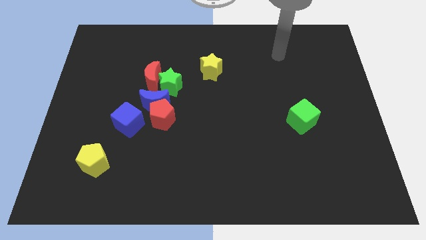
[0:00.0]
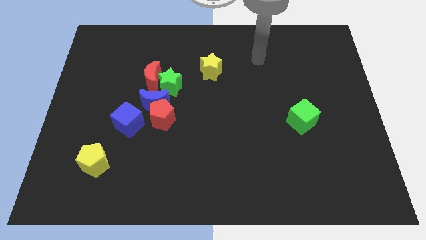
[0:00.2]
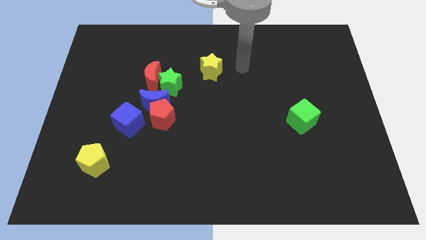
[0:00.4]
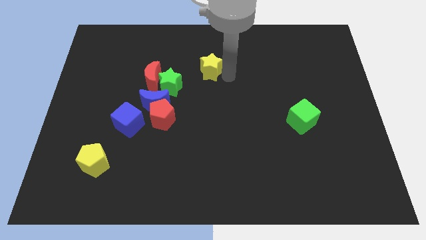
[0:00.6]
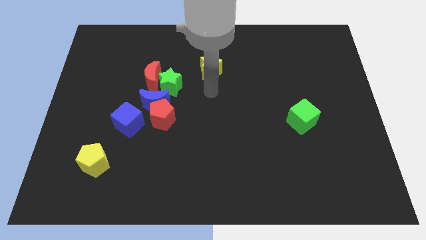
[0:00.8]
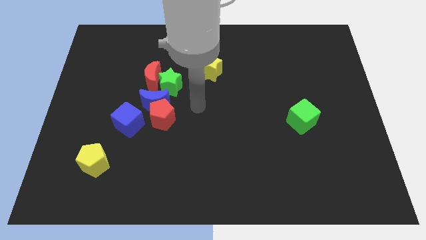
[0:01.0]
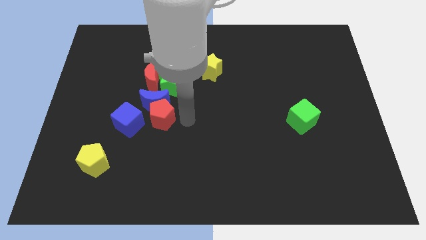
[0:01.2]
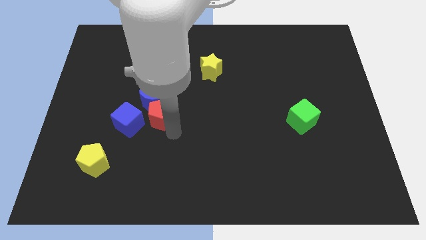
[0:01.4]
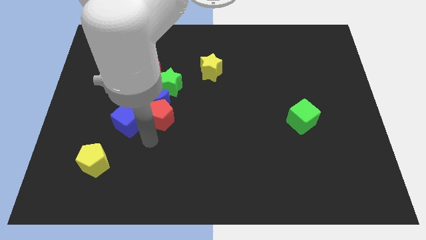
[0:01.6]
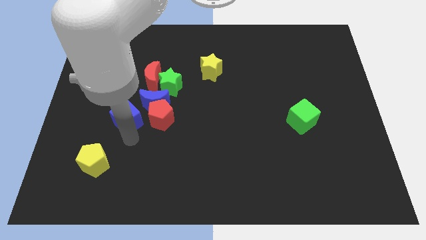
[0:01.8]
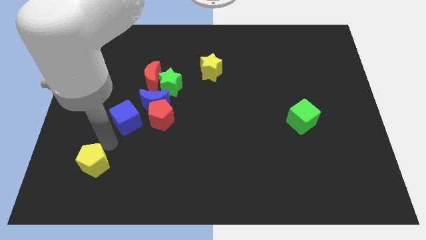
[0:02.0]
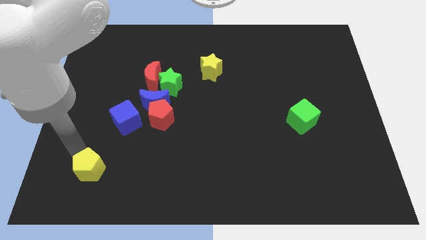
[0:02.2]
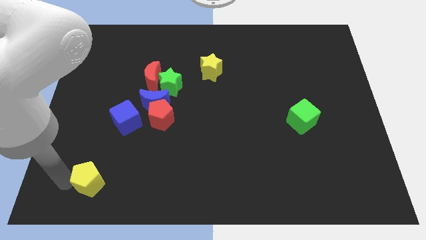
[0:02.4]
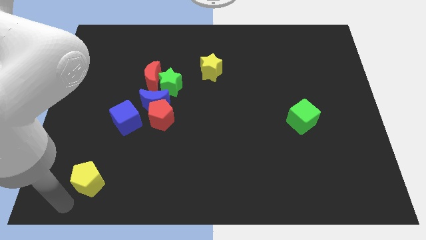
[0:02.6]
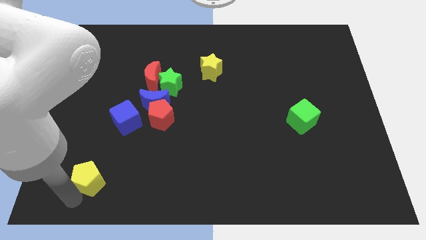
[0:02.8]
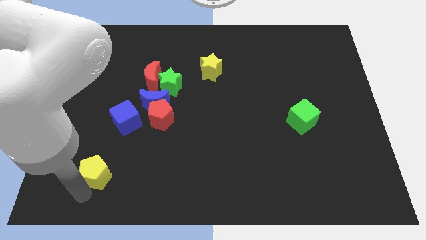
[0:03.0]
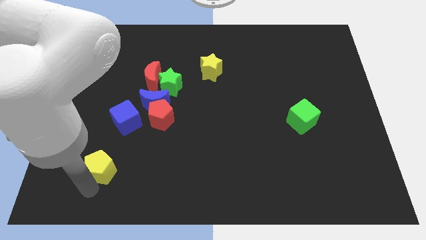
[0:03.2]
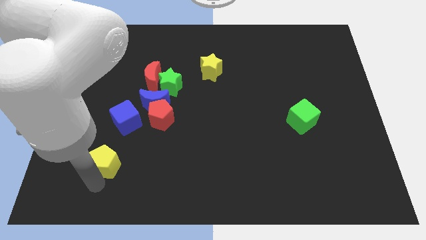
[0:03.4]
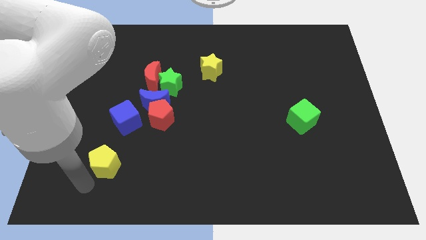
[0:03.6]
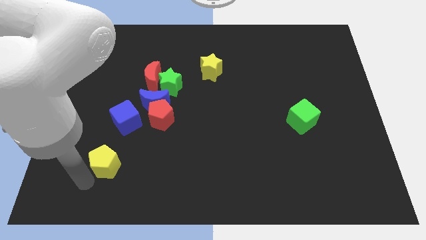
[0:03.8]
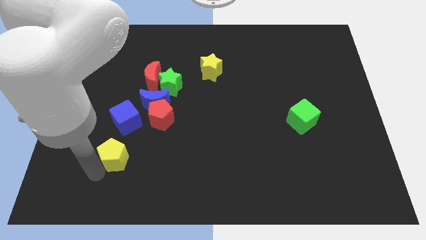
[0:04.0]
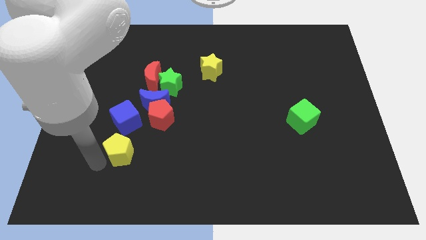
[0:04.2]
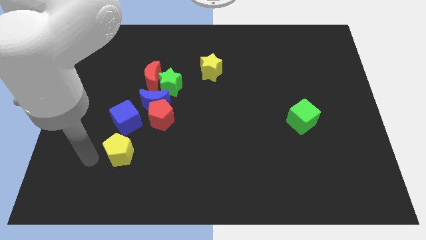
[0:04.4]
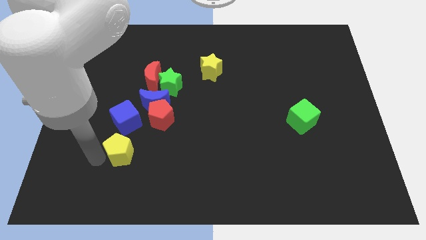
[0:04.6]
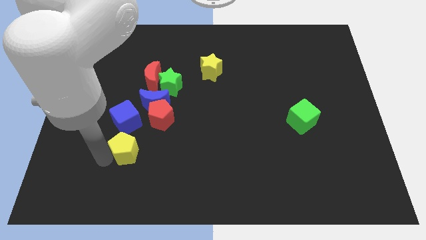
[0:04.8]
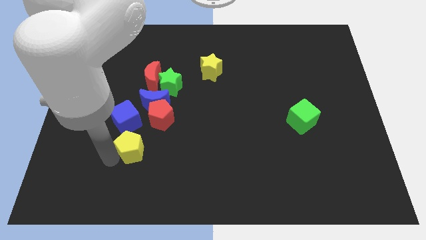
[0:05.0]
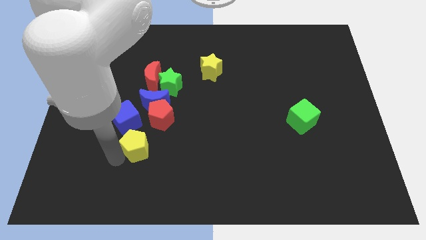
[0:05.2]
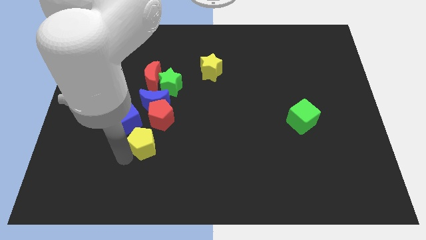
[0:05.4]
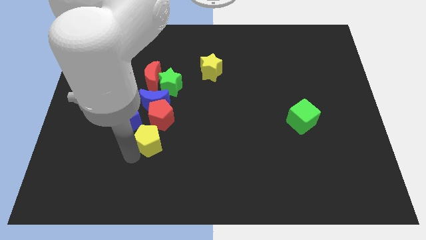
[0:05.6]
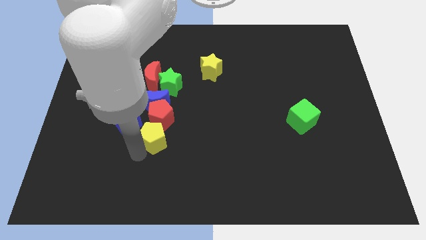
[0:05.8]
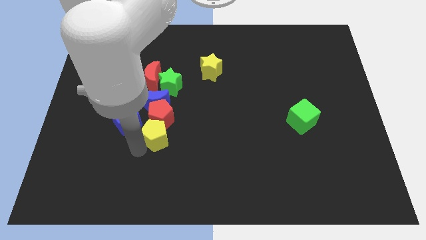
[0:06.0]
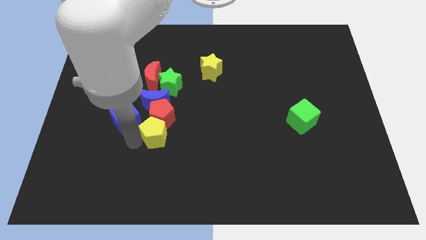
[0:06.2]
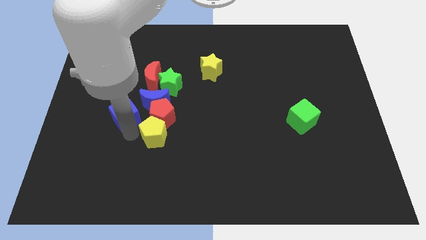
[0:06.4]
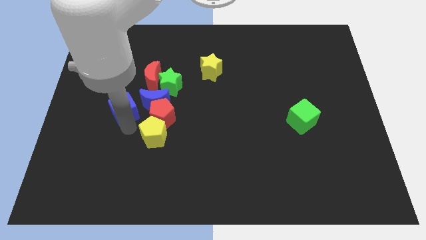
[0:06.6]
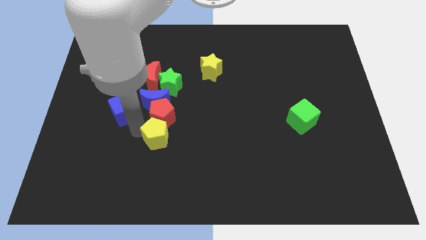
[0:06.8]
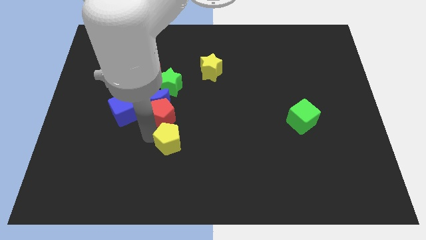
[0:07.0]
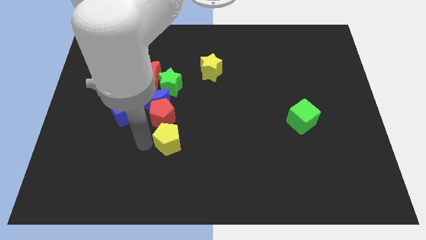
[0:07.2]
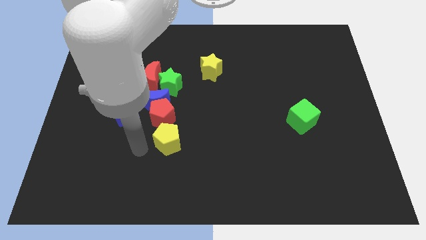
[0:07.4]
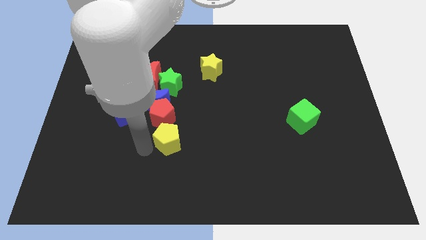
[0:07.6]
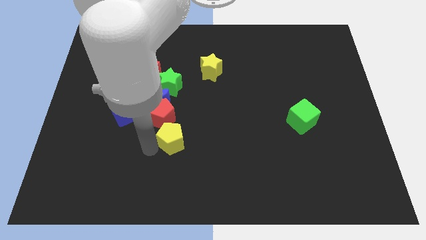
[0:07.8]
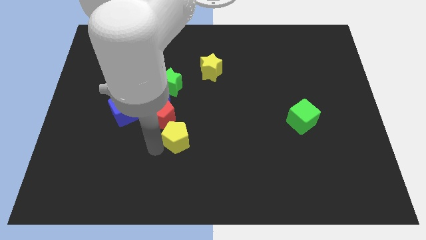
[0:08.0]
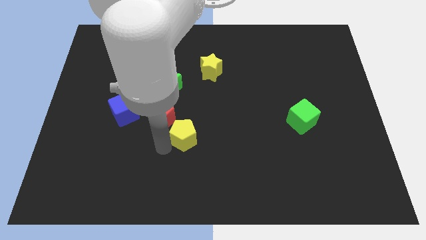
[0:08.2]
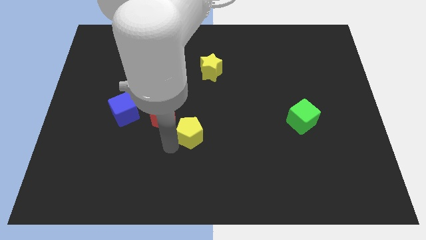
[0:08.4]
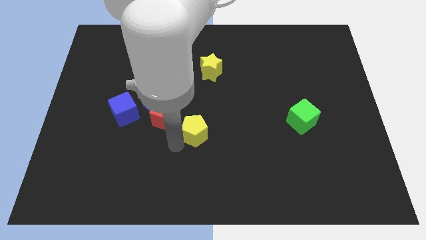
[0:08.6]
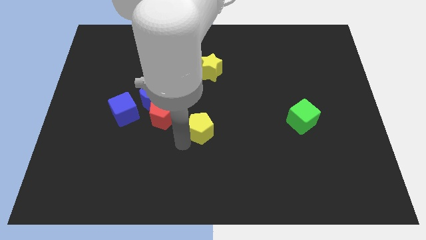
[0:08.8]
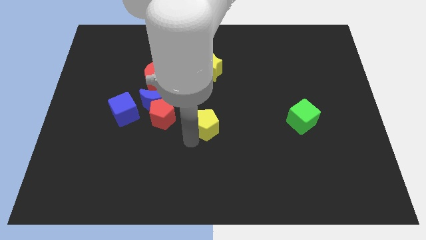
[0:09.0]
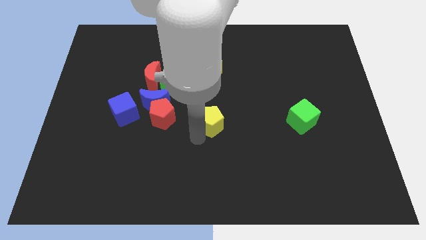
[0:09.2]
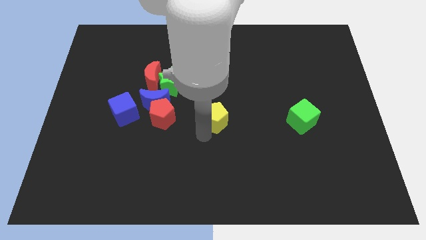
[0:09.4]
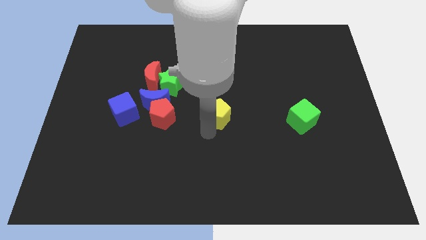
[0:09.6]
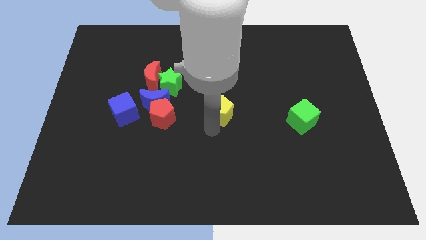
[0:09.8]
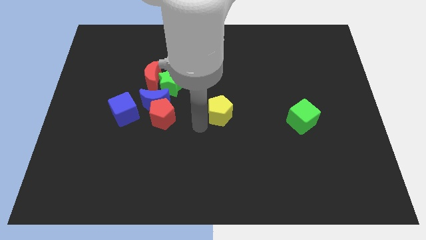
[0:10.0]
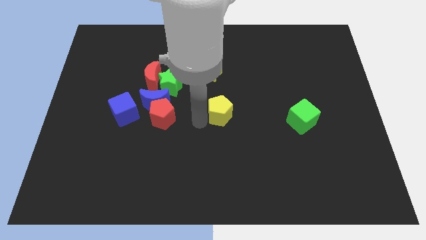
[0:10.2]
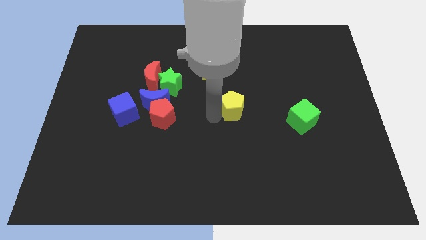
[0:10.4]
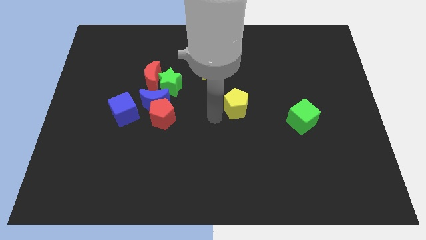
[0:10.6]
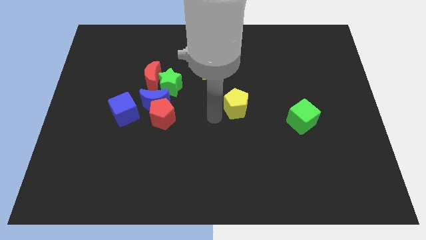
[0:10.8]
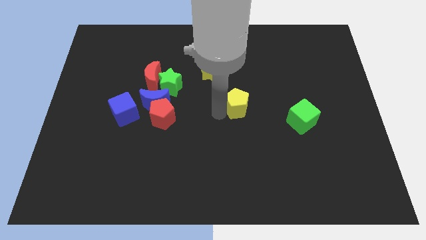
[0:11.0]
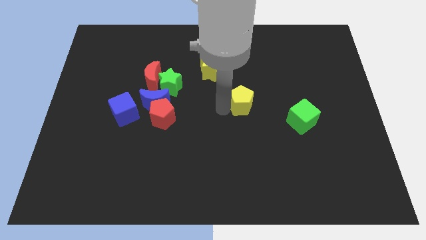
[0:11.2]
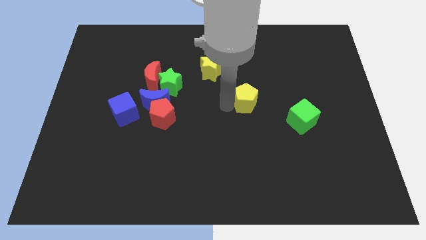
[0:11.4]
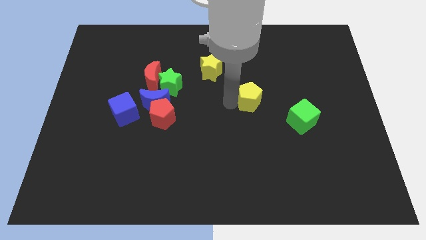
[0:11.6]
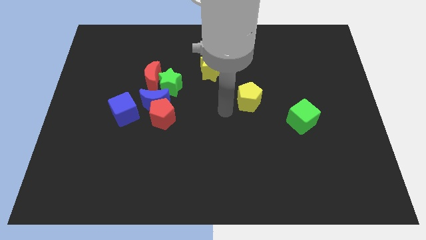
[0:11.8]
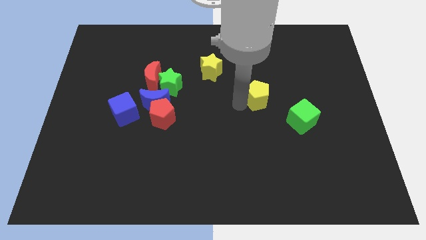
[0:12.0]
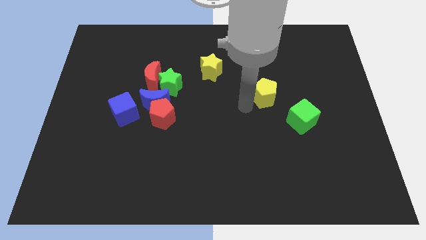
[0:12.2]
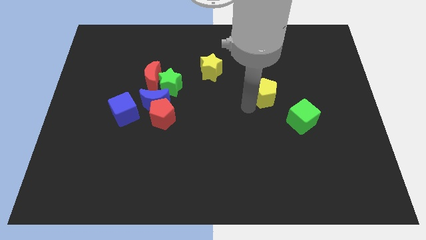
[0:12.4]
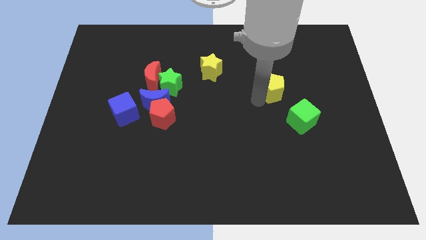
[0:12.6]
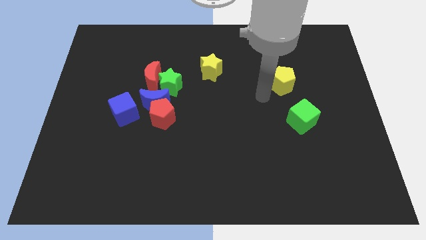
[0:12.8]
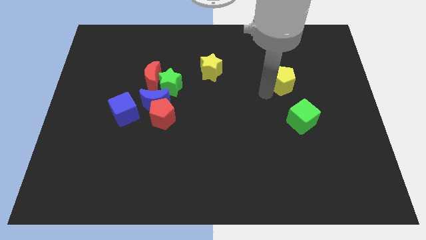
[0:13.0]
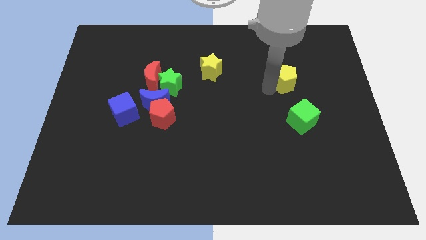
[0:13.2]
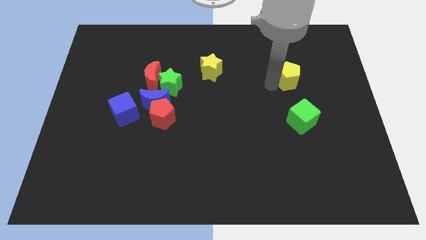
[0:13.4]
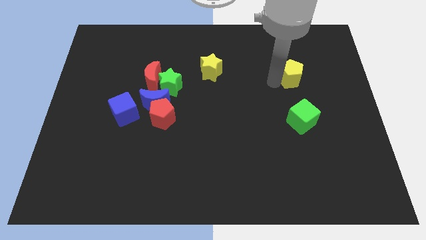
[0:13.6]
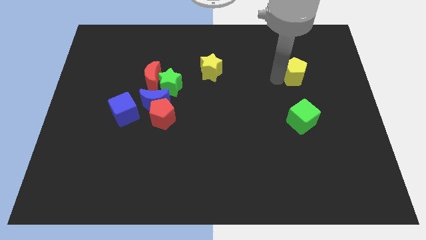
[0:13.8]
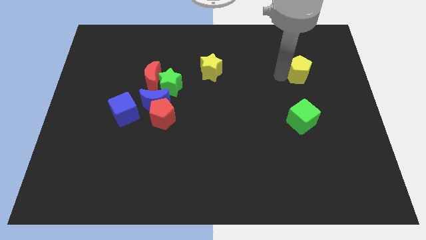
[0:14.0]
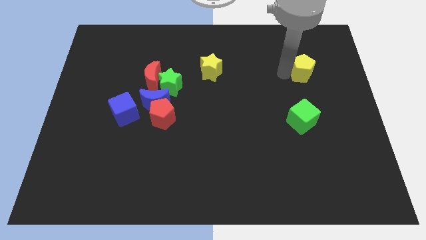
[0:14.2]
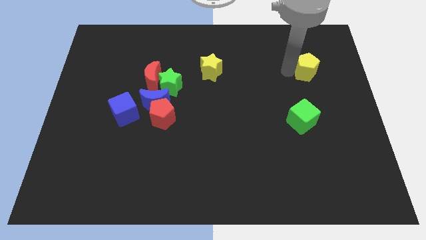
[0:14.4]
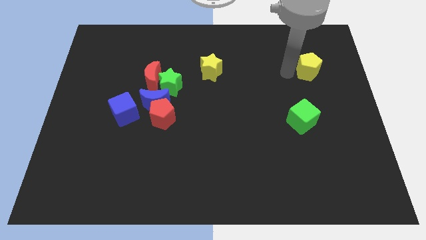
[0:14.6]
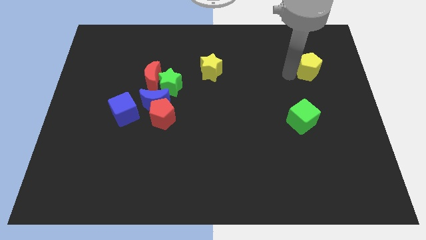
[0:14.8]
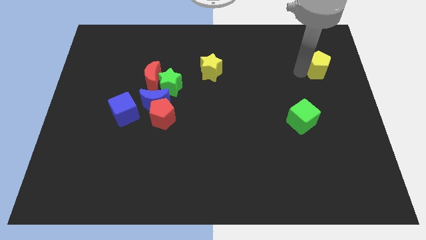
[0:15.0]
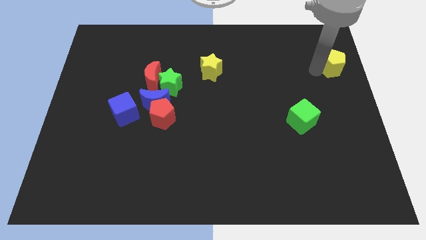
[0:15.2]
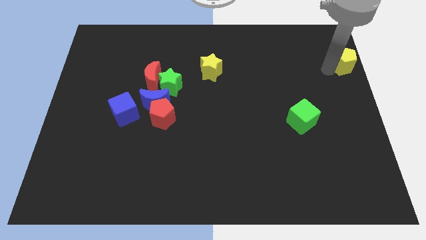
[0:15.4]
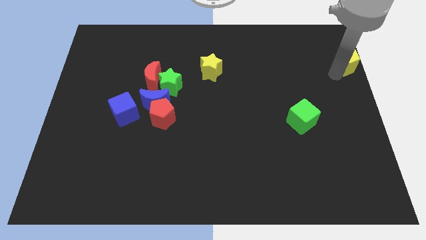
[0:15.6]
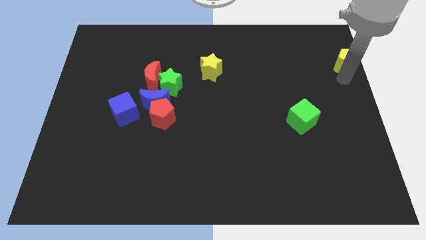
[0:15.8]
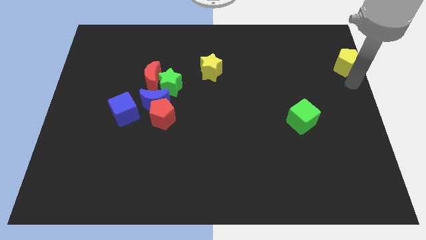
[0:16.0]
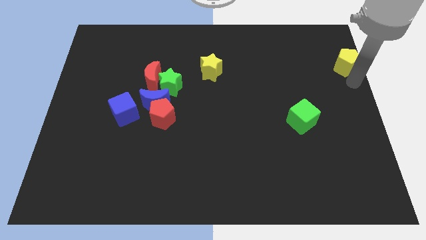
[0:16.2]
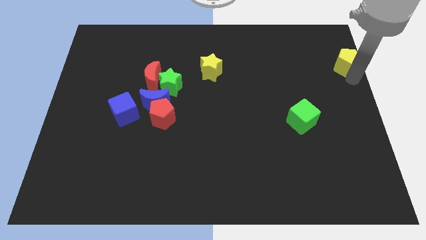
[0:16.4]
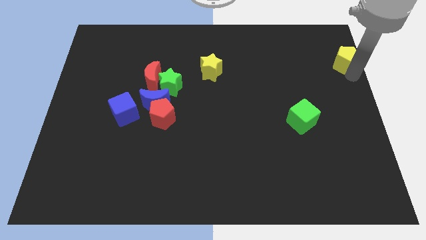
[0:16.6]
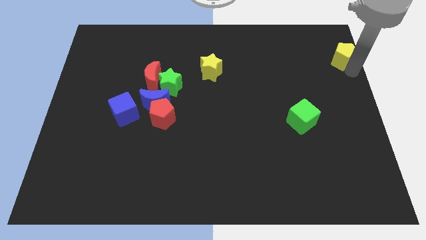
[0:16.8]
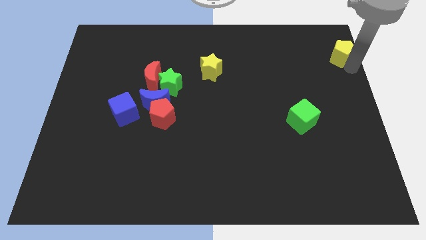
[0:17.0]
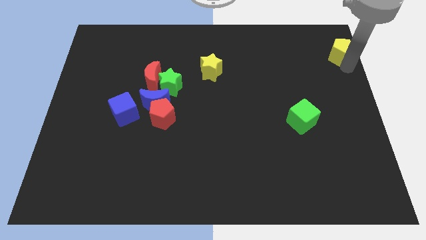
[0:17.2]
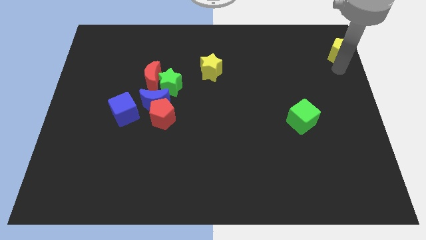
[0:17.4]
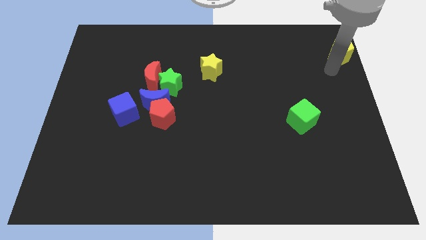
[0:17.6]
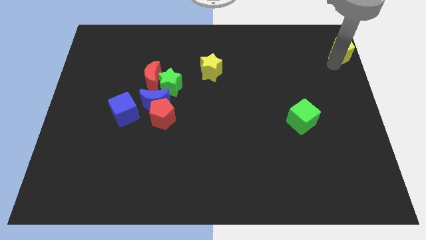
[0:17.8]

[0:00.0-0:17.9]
push the yellow pentagon to the upper right corner
